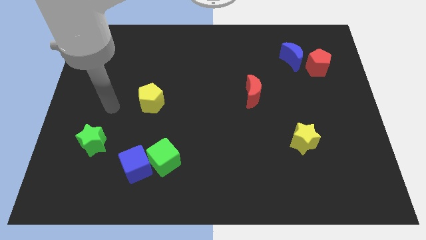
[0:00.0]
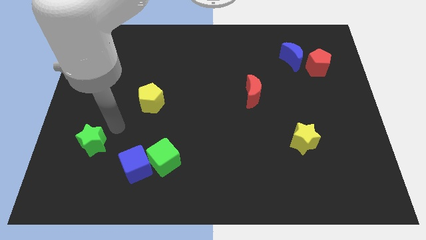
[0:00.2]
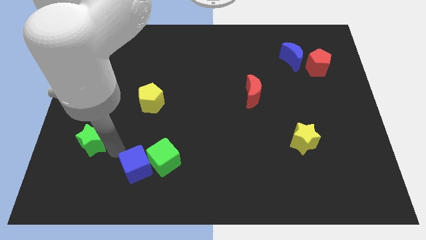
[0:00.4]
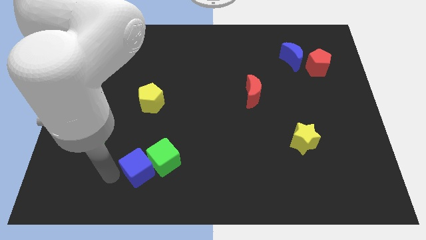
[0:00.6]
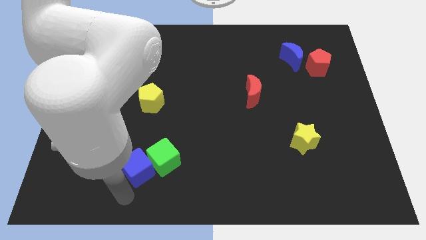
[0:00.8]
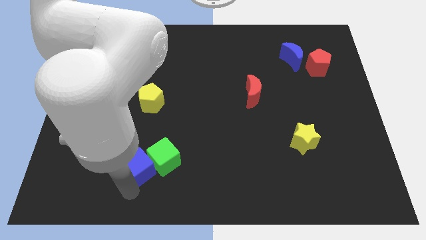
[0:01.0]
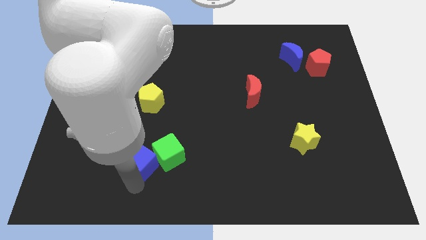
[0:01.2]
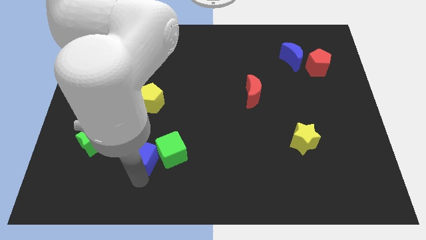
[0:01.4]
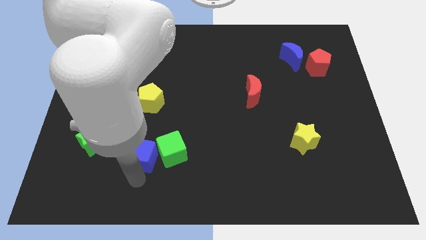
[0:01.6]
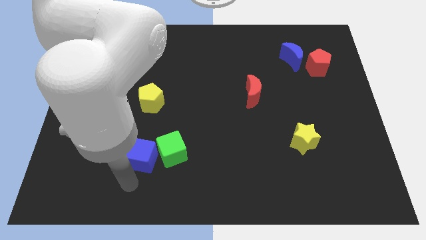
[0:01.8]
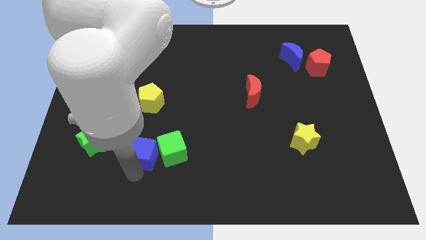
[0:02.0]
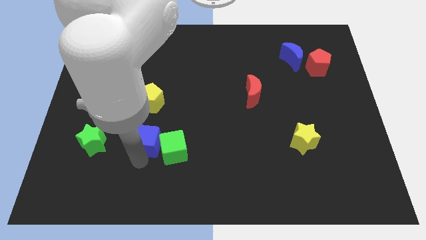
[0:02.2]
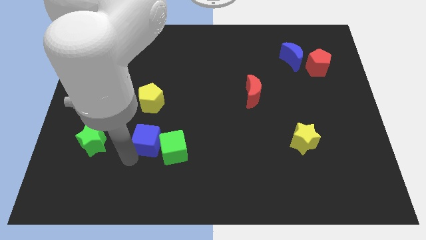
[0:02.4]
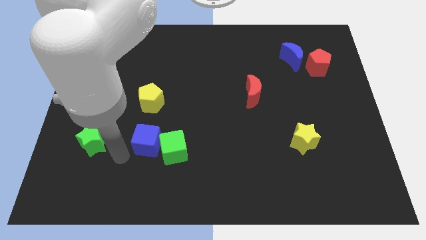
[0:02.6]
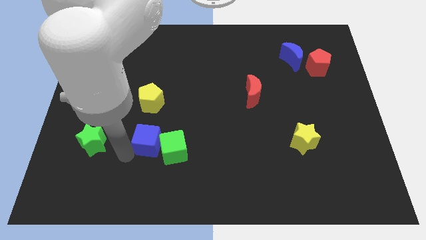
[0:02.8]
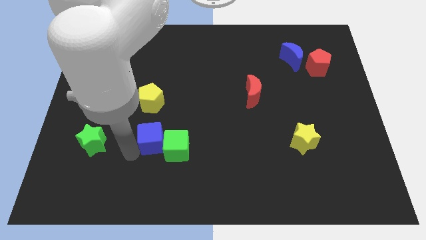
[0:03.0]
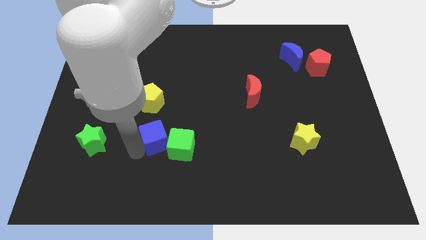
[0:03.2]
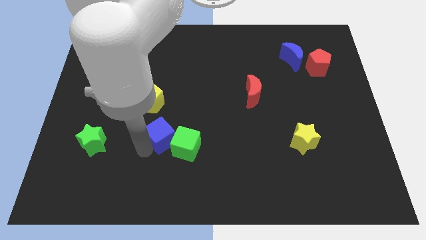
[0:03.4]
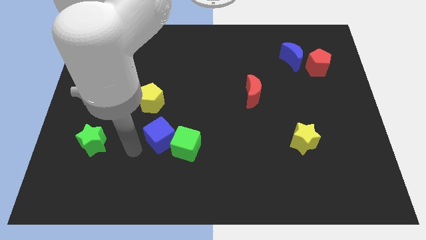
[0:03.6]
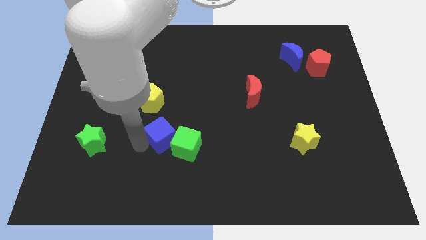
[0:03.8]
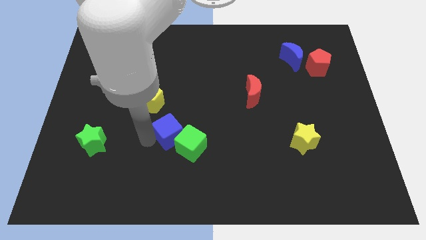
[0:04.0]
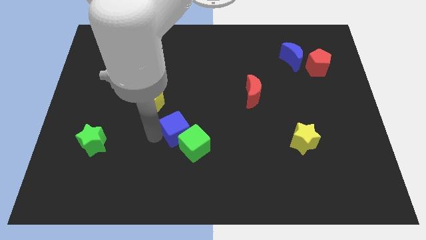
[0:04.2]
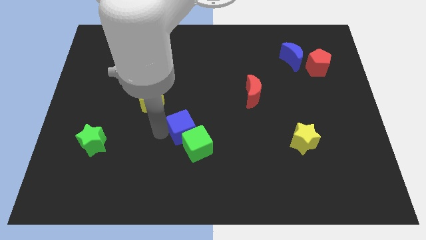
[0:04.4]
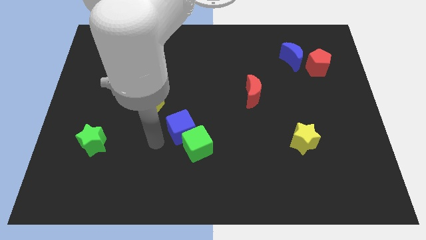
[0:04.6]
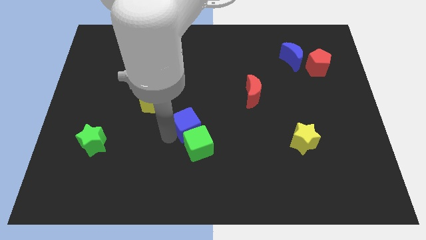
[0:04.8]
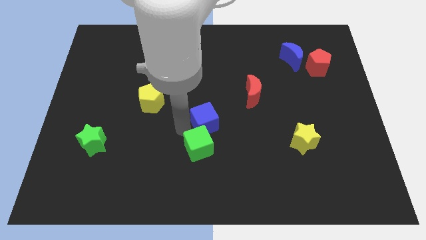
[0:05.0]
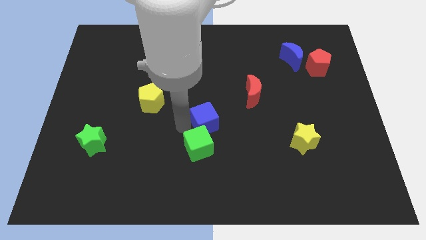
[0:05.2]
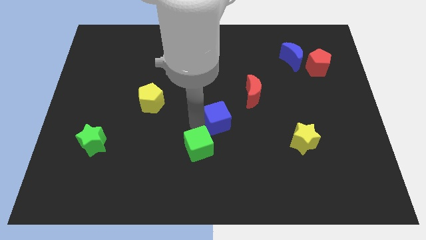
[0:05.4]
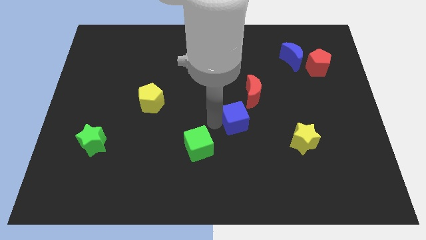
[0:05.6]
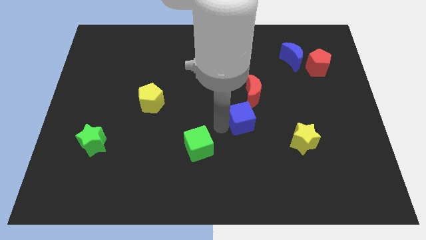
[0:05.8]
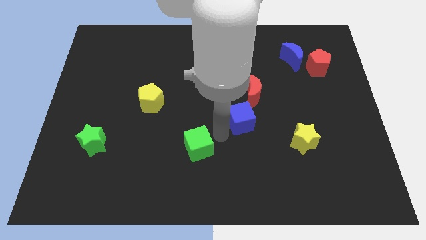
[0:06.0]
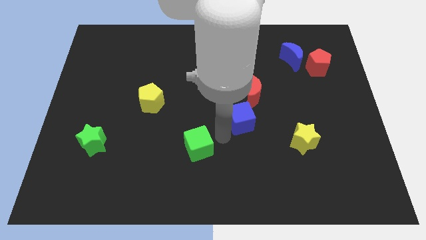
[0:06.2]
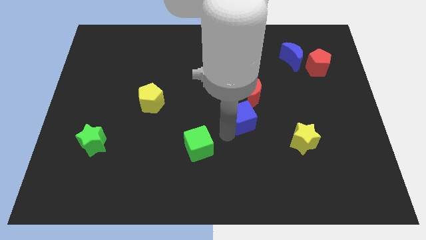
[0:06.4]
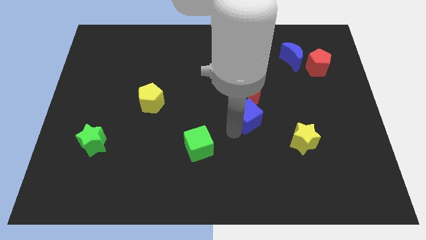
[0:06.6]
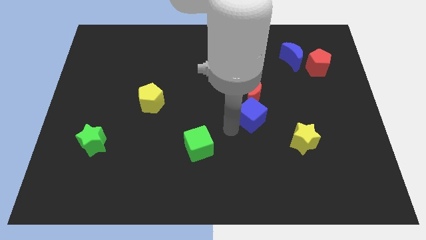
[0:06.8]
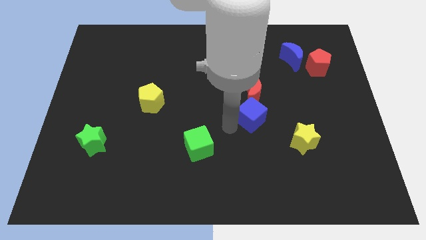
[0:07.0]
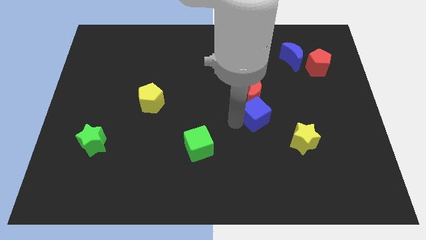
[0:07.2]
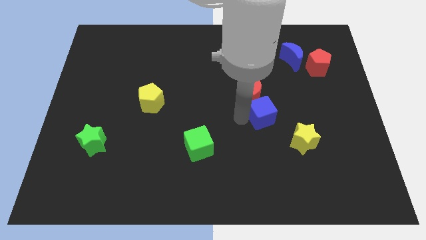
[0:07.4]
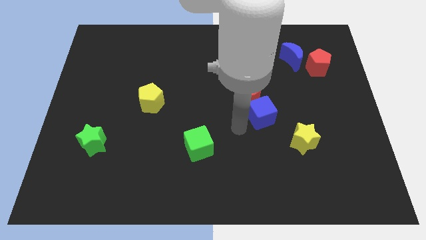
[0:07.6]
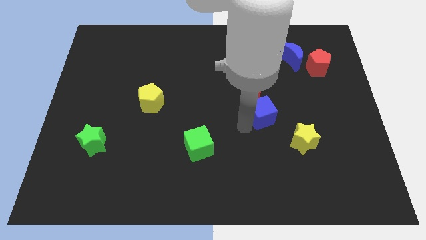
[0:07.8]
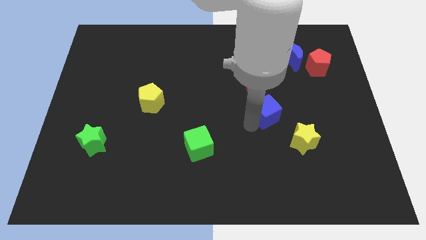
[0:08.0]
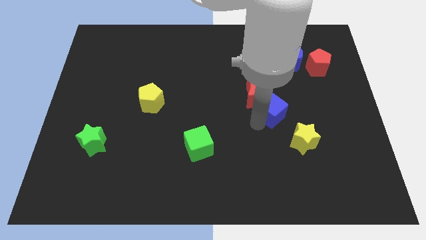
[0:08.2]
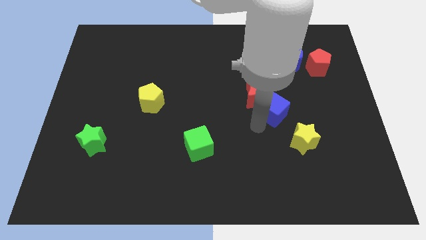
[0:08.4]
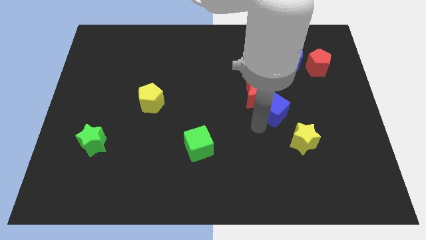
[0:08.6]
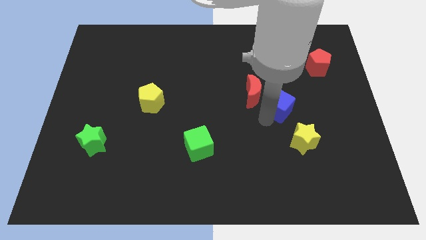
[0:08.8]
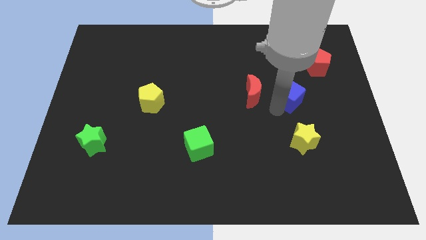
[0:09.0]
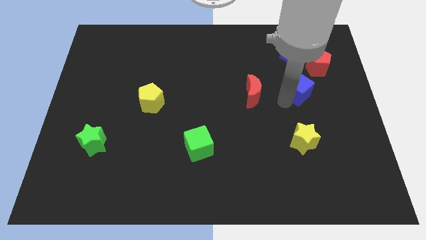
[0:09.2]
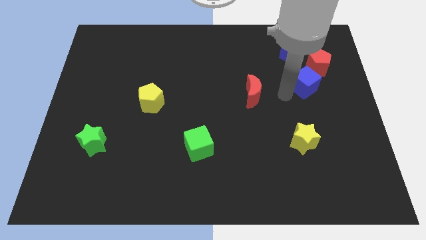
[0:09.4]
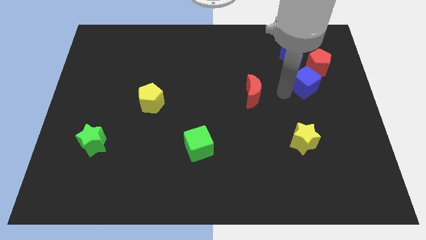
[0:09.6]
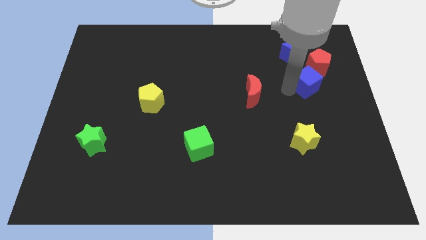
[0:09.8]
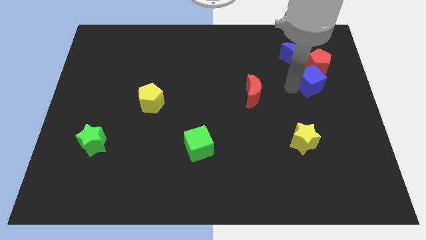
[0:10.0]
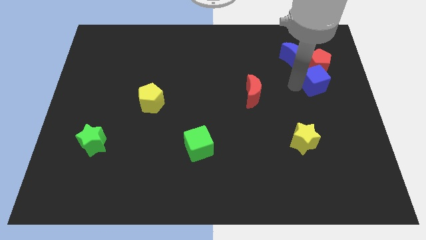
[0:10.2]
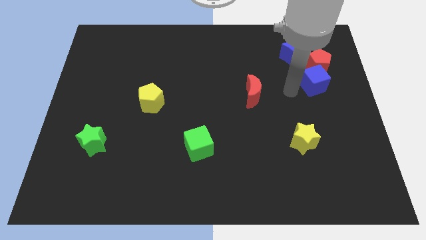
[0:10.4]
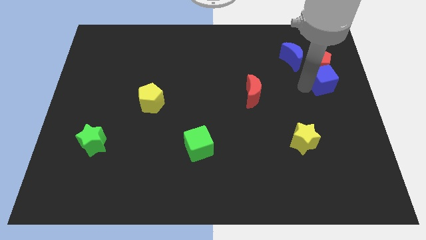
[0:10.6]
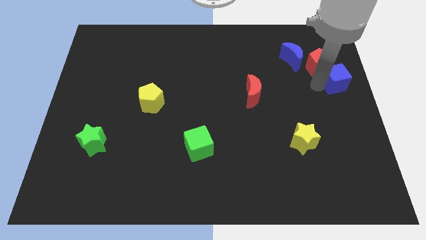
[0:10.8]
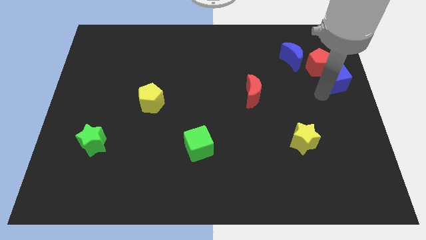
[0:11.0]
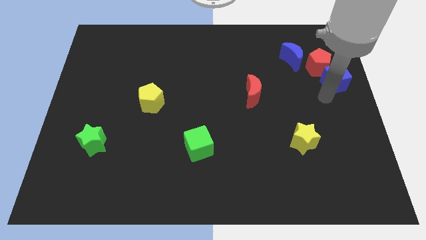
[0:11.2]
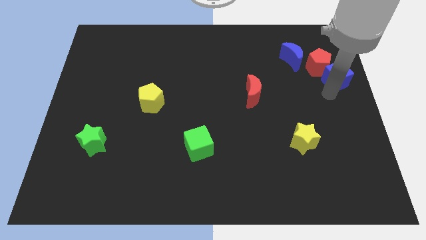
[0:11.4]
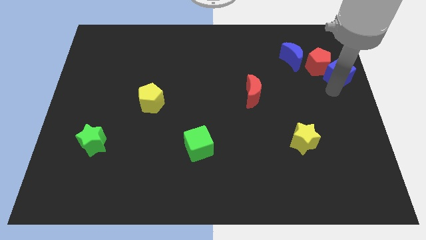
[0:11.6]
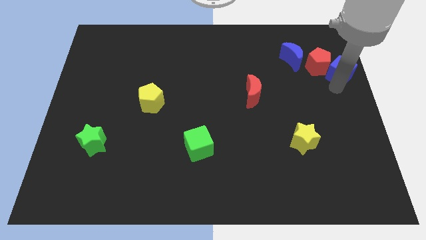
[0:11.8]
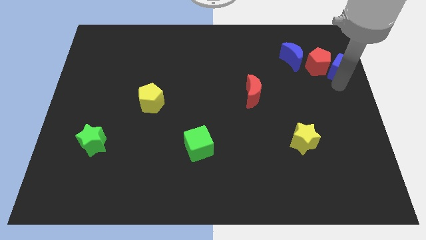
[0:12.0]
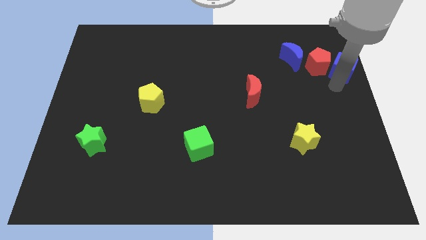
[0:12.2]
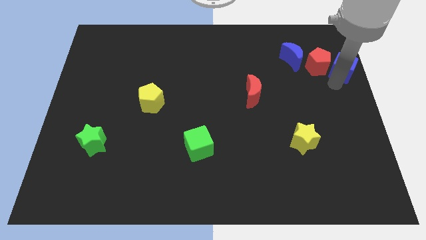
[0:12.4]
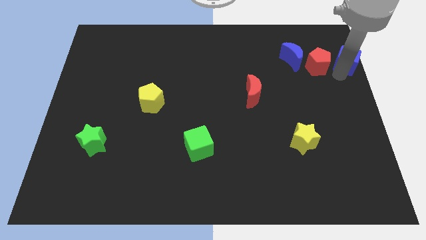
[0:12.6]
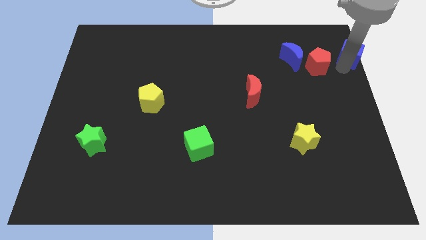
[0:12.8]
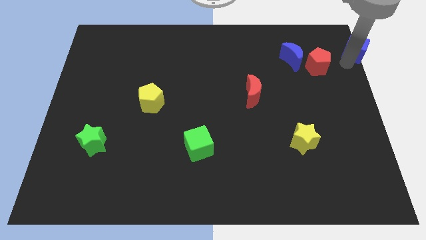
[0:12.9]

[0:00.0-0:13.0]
slide the blue cube to the top right corner
